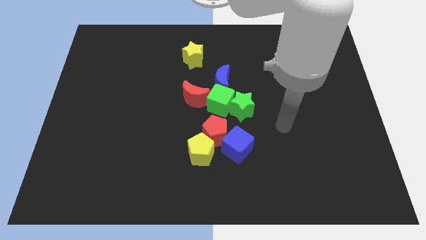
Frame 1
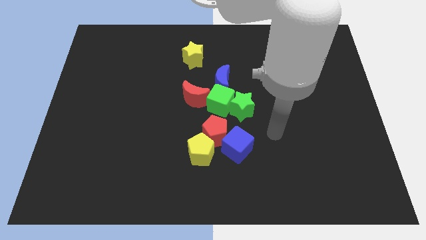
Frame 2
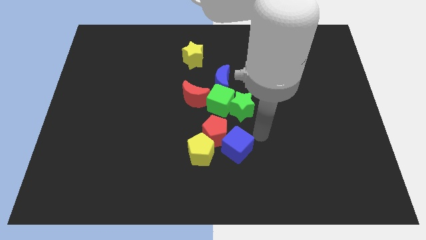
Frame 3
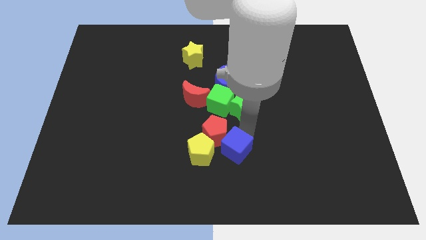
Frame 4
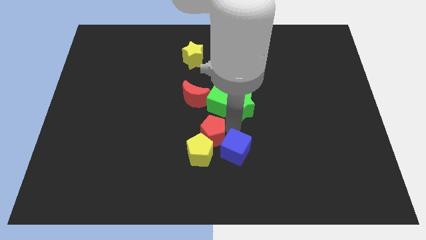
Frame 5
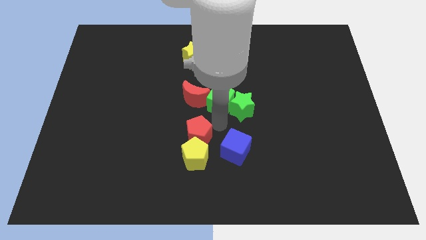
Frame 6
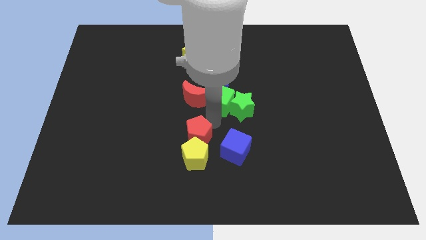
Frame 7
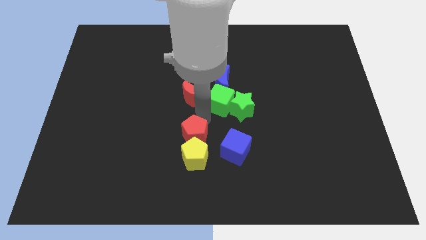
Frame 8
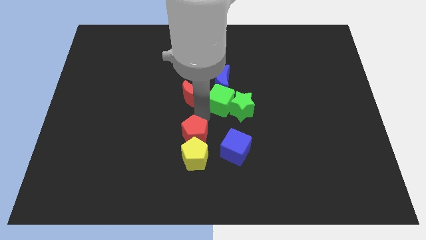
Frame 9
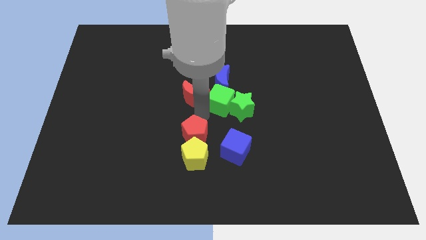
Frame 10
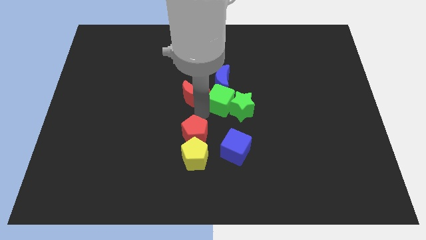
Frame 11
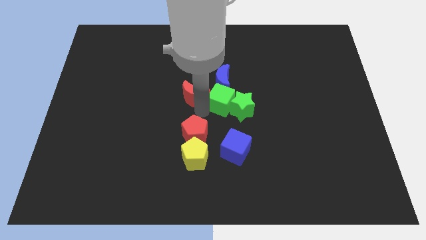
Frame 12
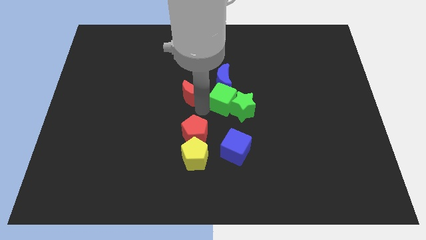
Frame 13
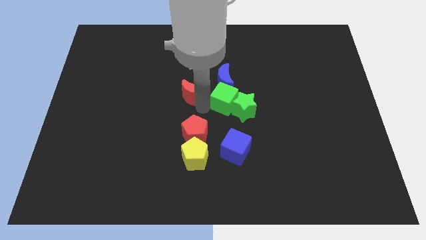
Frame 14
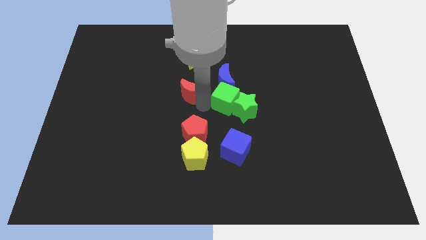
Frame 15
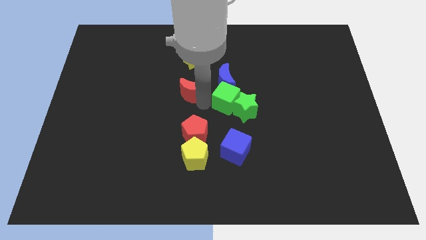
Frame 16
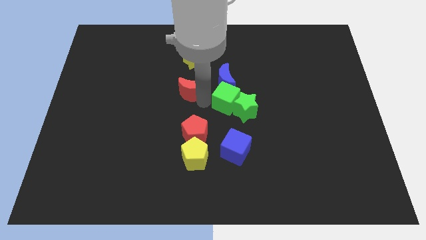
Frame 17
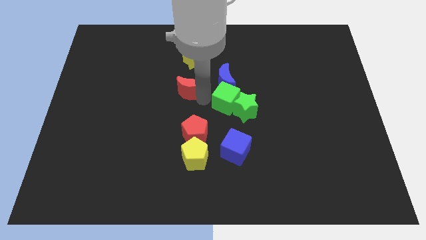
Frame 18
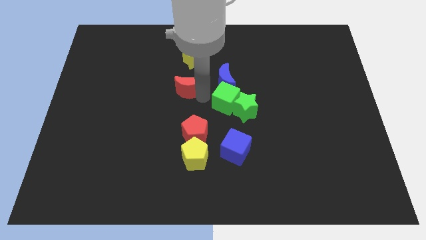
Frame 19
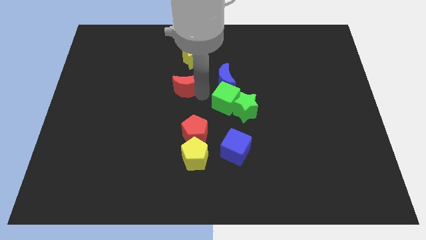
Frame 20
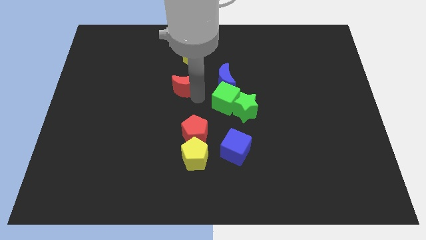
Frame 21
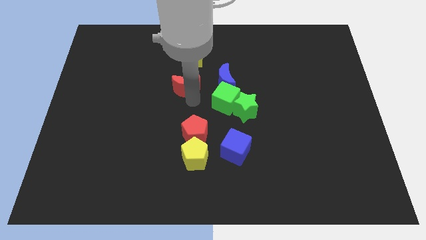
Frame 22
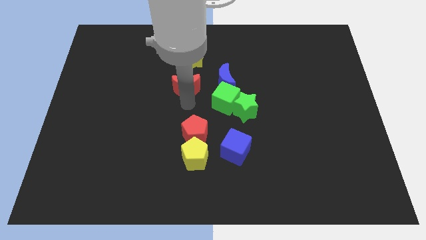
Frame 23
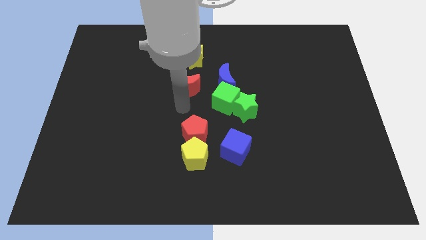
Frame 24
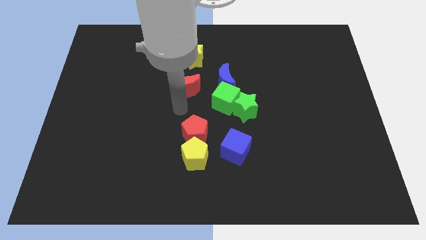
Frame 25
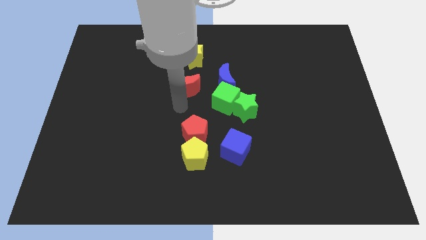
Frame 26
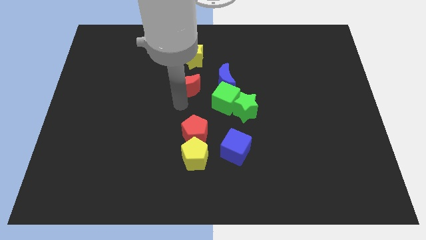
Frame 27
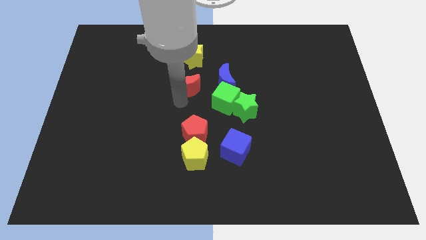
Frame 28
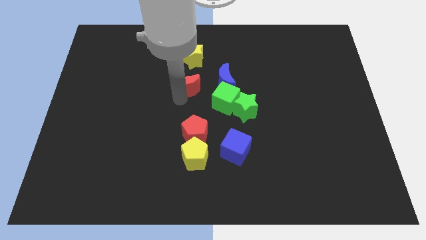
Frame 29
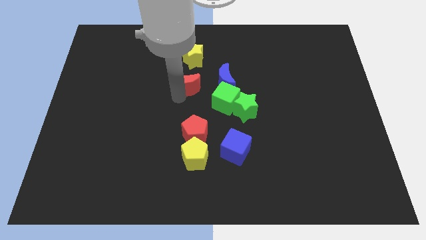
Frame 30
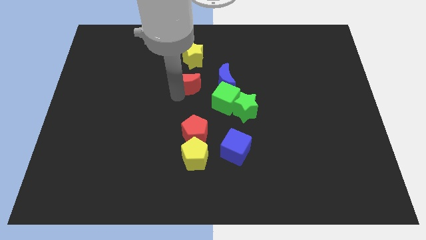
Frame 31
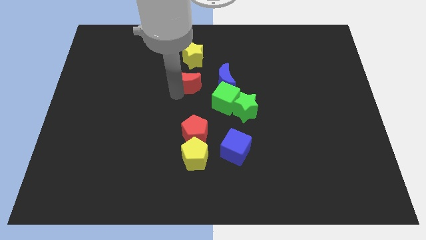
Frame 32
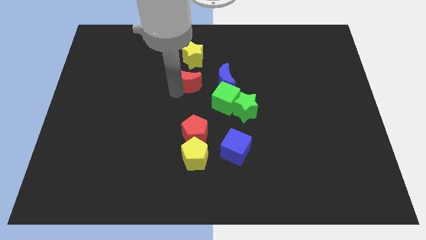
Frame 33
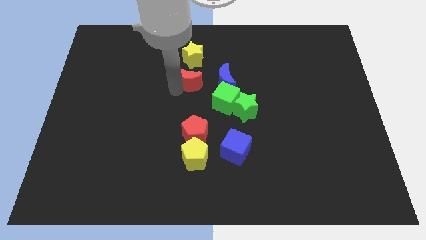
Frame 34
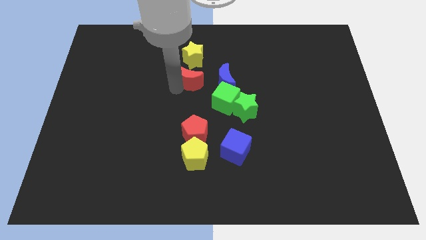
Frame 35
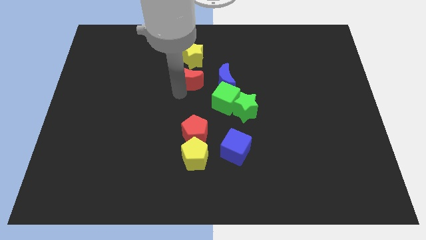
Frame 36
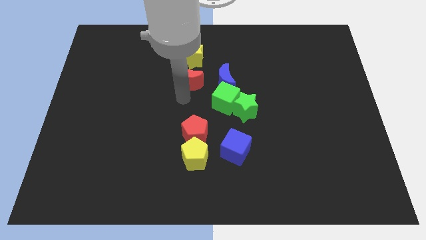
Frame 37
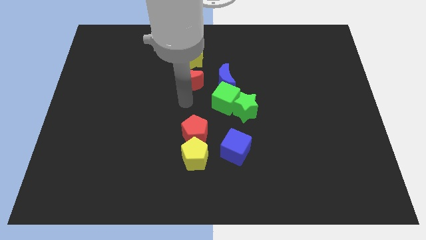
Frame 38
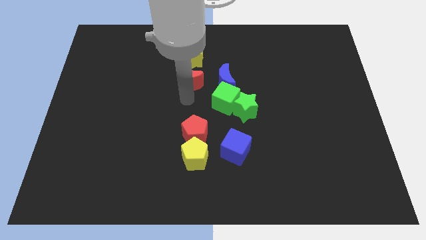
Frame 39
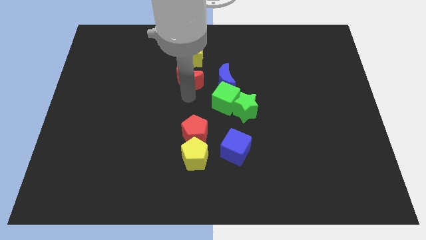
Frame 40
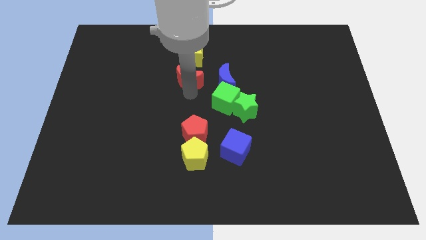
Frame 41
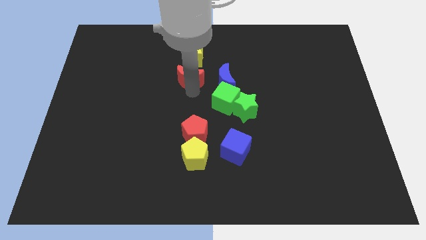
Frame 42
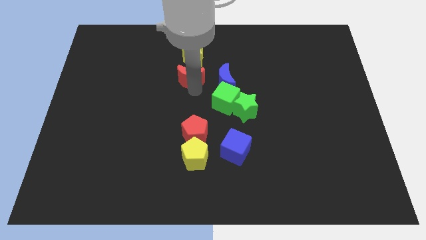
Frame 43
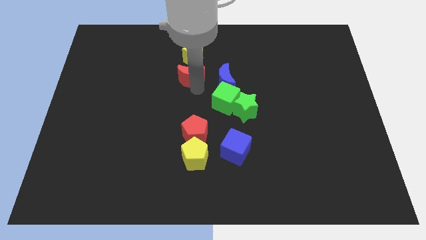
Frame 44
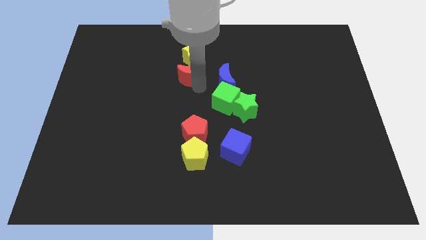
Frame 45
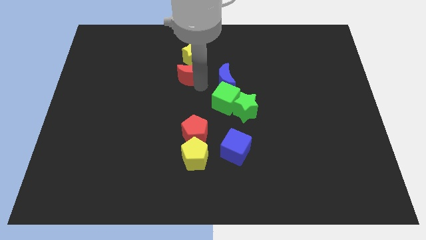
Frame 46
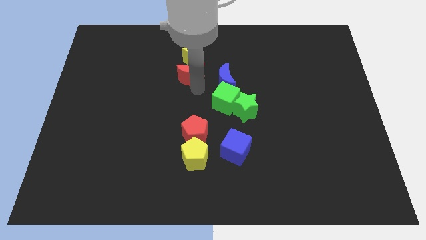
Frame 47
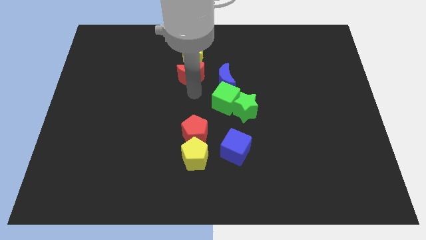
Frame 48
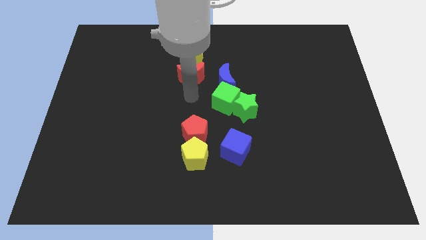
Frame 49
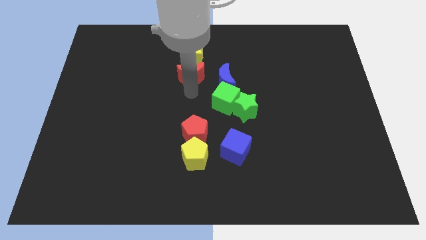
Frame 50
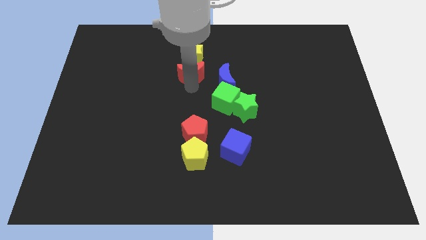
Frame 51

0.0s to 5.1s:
move the red moon towards the yellow star

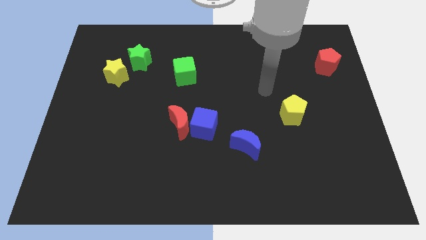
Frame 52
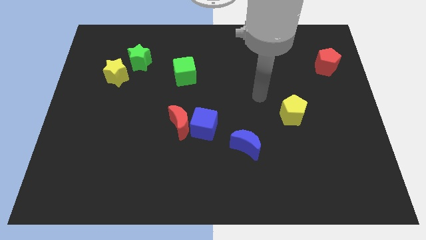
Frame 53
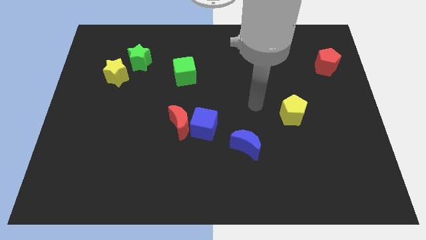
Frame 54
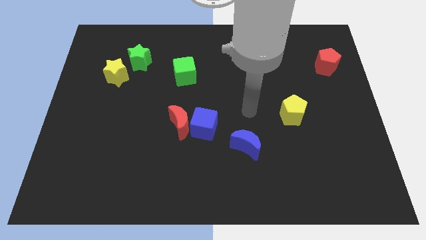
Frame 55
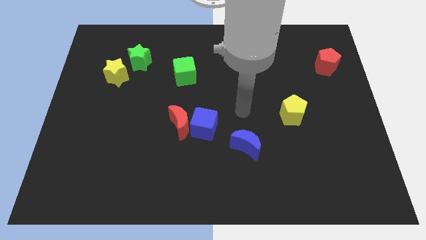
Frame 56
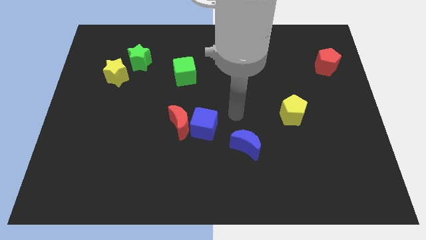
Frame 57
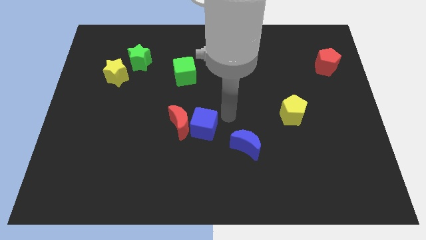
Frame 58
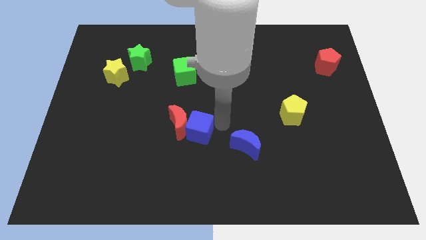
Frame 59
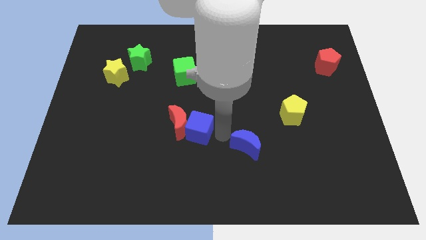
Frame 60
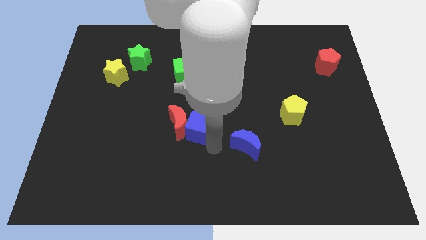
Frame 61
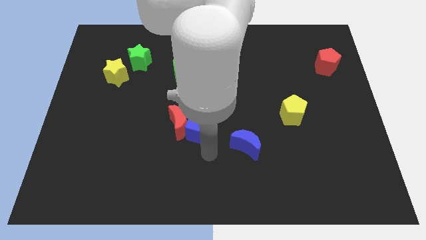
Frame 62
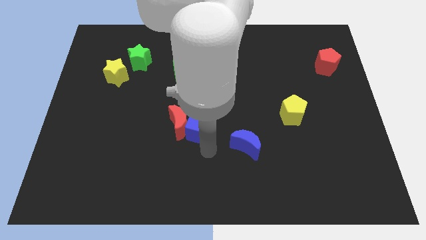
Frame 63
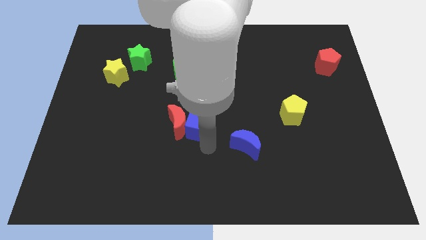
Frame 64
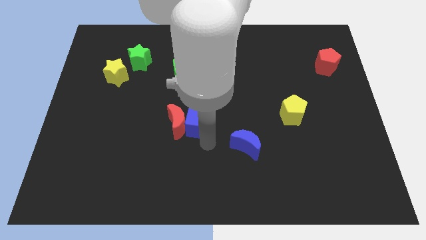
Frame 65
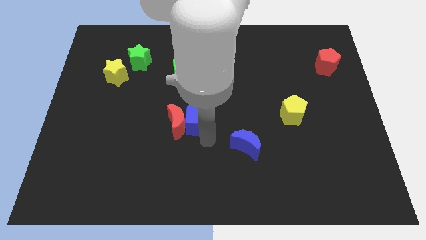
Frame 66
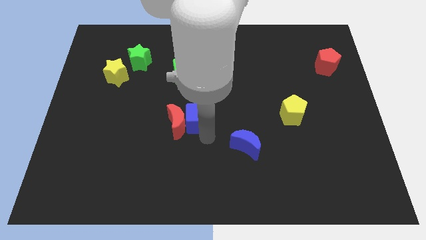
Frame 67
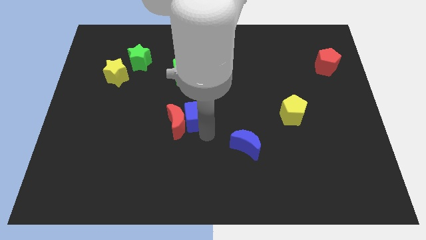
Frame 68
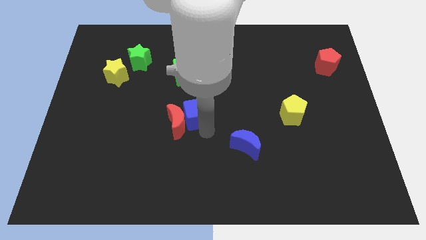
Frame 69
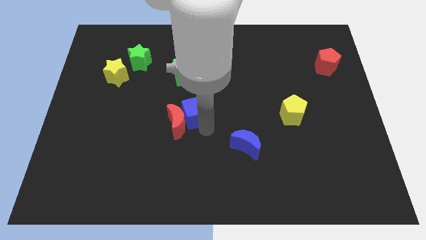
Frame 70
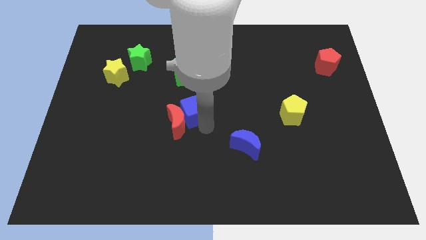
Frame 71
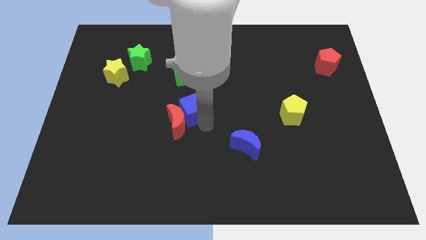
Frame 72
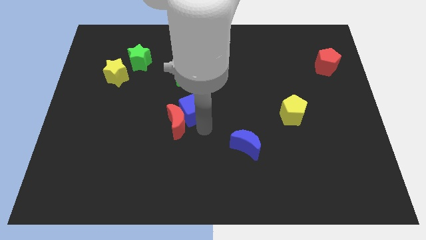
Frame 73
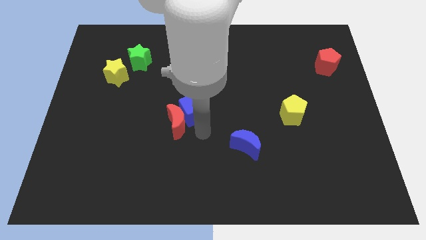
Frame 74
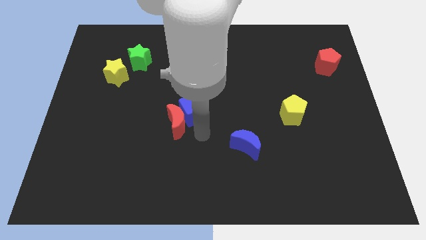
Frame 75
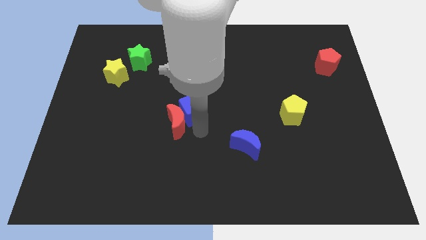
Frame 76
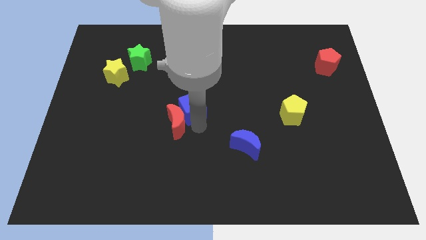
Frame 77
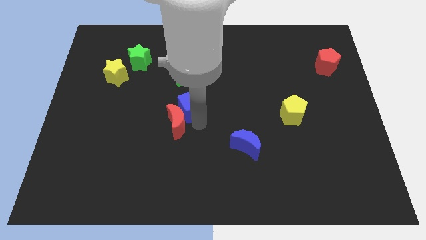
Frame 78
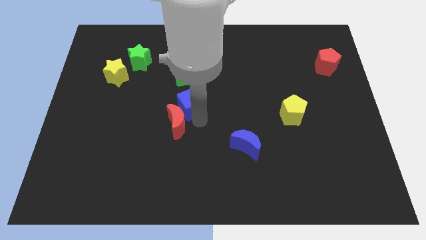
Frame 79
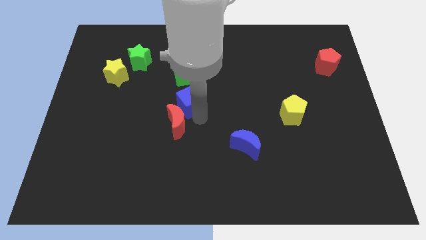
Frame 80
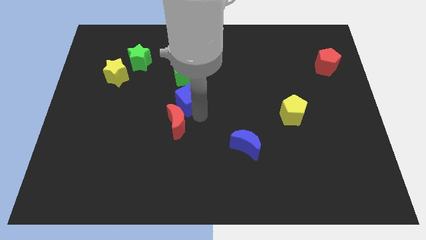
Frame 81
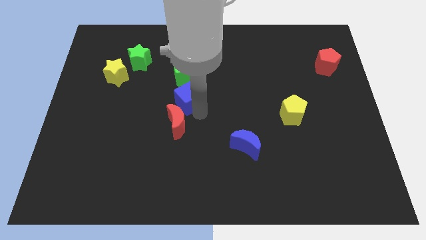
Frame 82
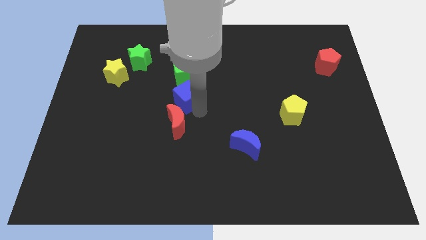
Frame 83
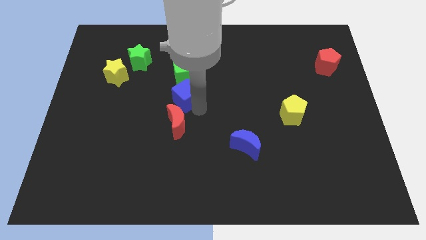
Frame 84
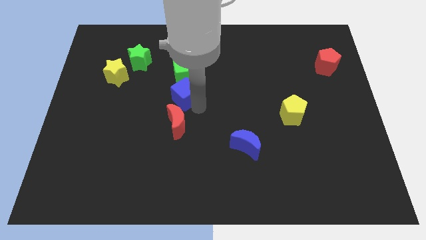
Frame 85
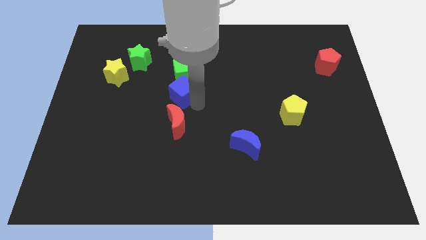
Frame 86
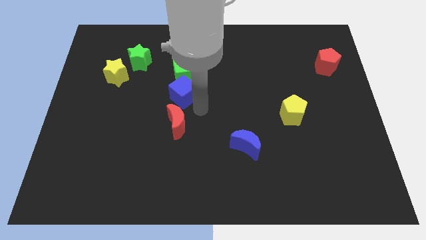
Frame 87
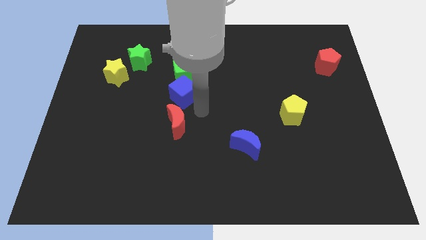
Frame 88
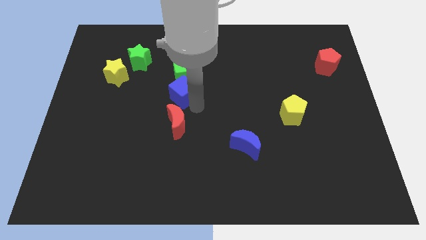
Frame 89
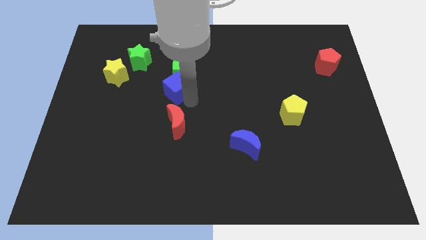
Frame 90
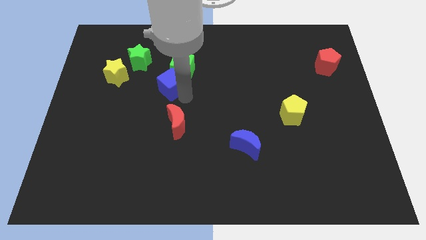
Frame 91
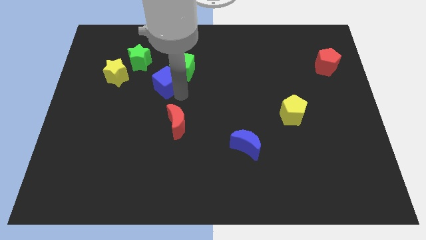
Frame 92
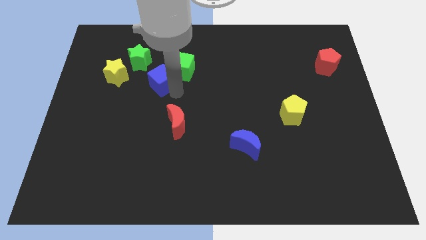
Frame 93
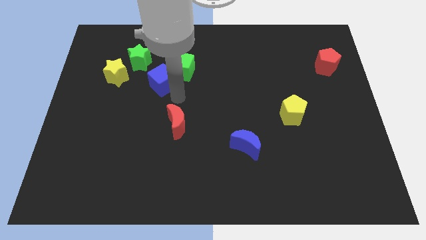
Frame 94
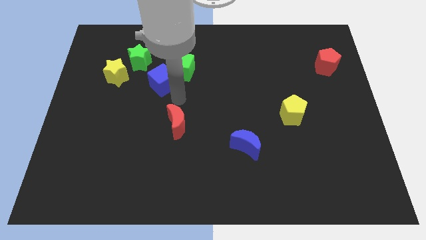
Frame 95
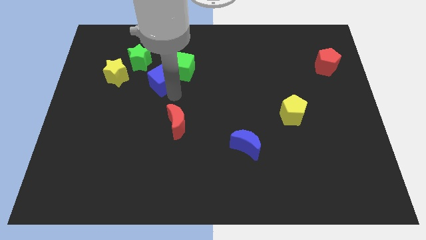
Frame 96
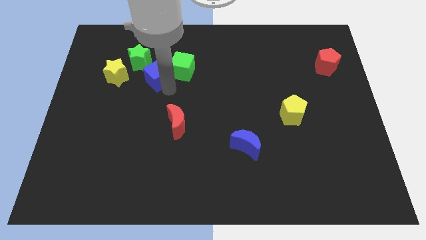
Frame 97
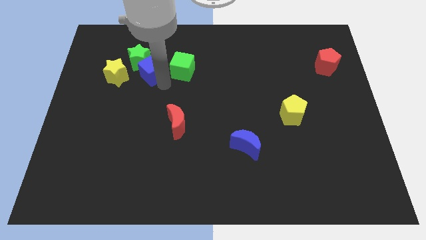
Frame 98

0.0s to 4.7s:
move the blue cube to the green star
